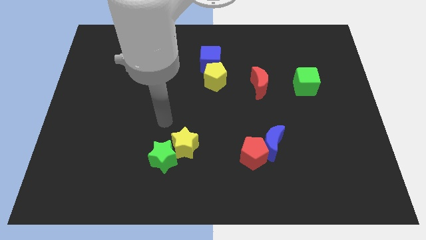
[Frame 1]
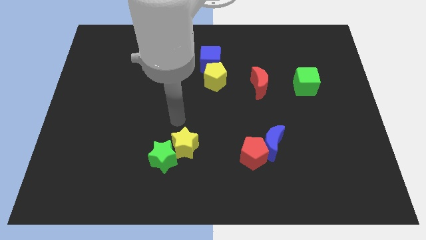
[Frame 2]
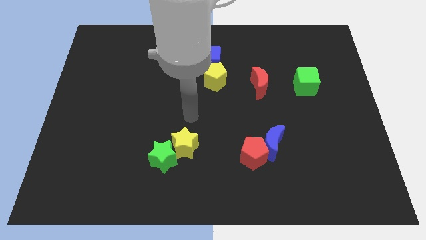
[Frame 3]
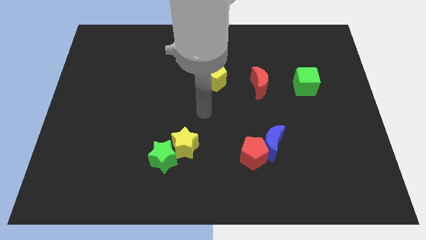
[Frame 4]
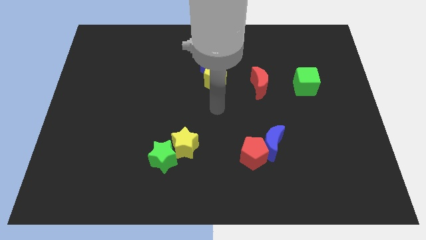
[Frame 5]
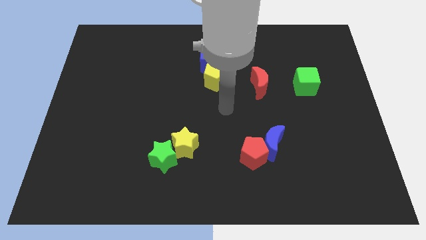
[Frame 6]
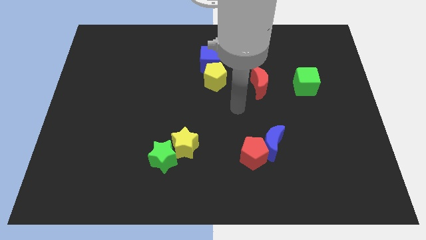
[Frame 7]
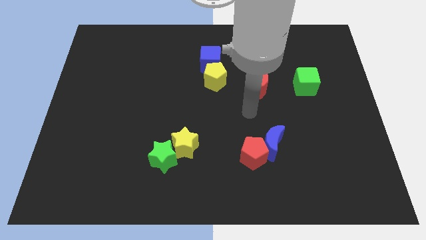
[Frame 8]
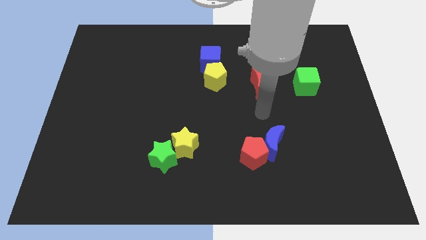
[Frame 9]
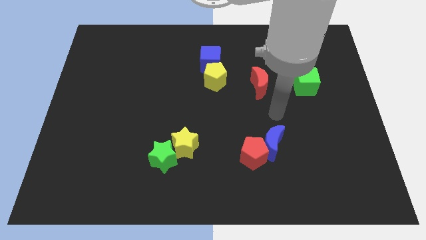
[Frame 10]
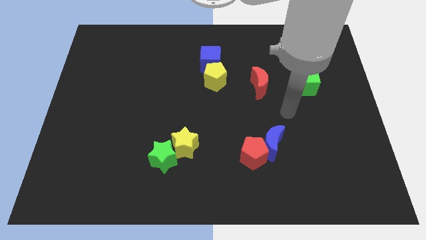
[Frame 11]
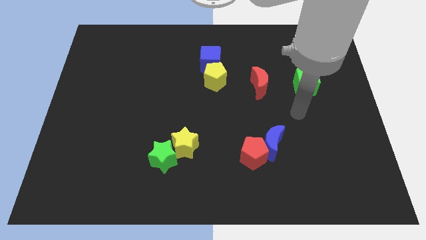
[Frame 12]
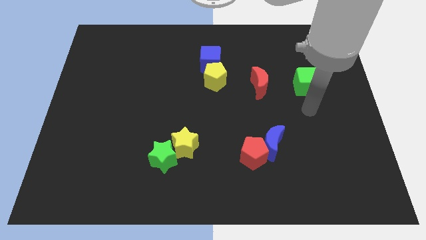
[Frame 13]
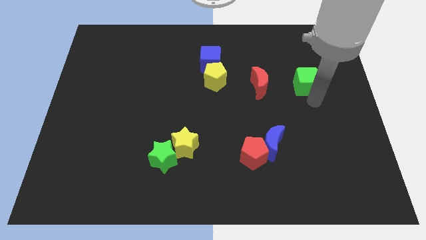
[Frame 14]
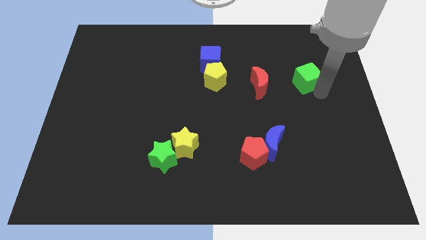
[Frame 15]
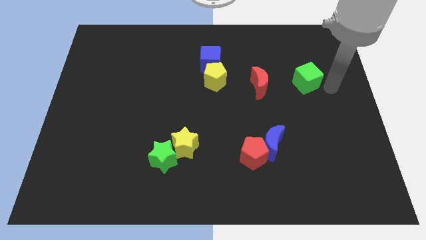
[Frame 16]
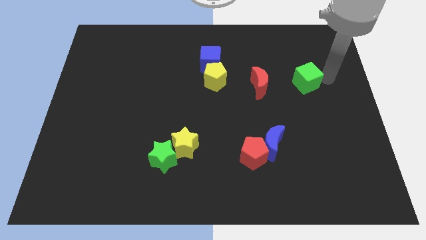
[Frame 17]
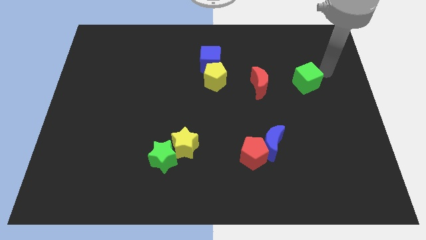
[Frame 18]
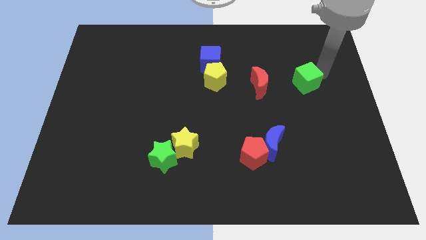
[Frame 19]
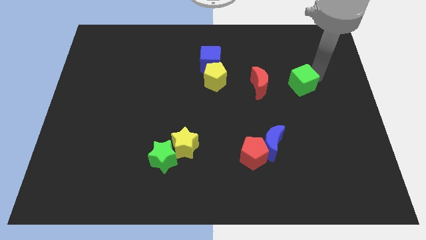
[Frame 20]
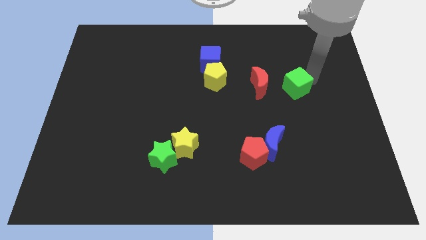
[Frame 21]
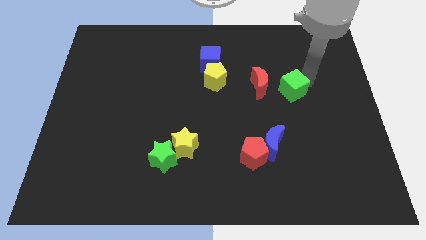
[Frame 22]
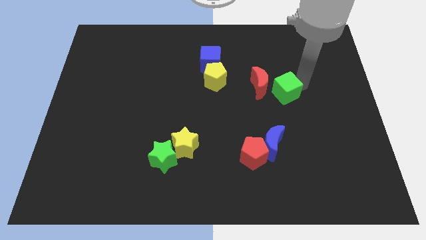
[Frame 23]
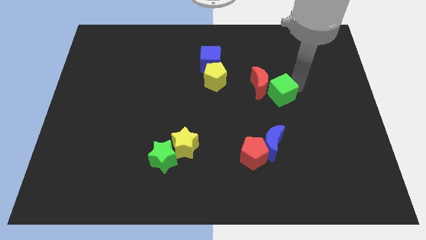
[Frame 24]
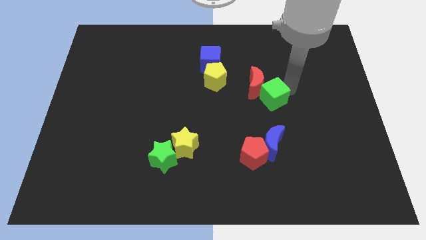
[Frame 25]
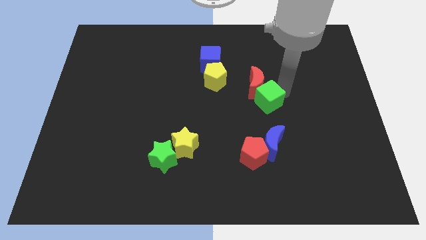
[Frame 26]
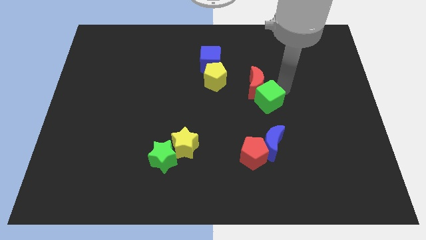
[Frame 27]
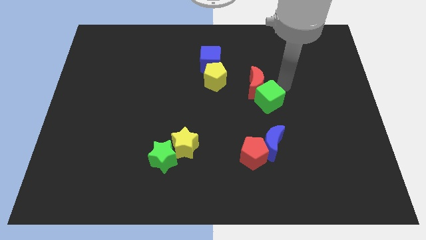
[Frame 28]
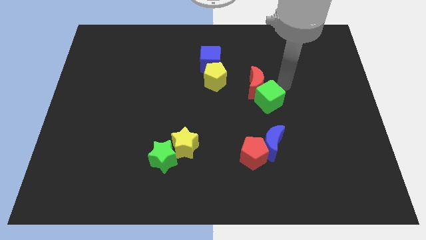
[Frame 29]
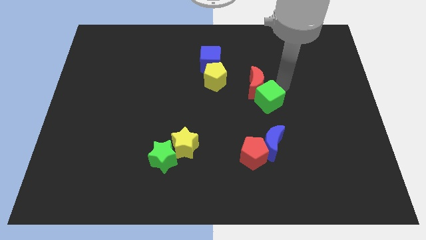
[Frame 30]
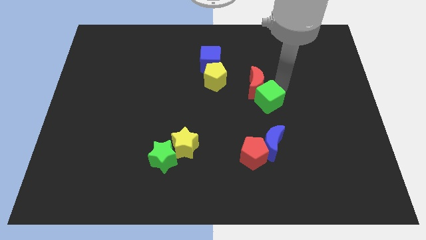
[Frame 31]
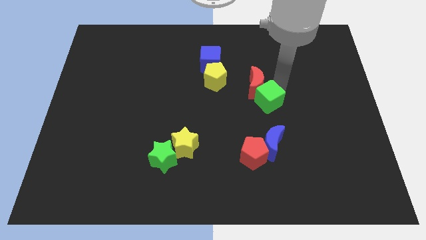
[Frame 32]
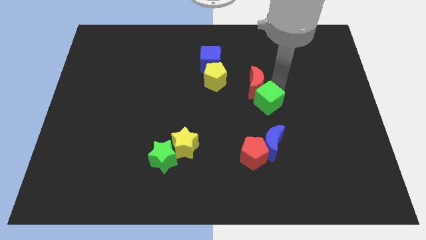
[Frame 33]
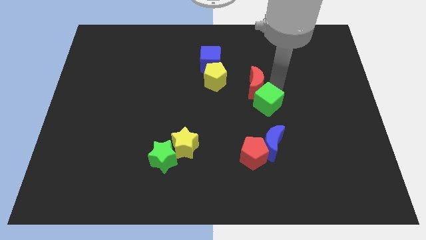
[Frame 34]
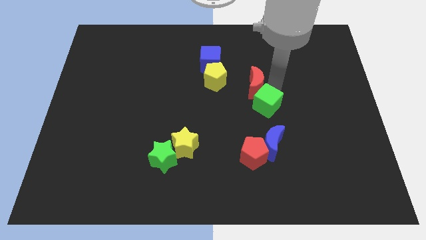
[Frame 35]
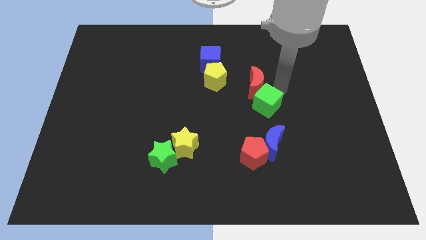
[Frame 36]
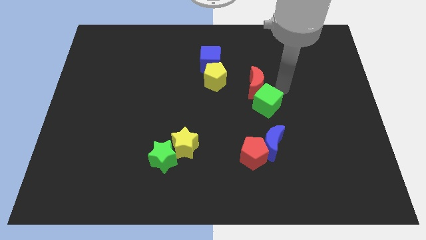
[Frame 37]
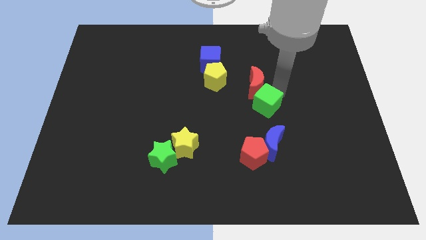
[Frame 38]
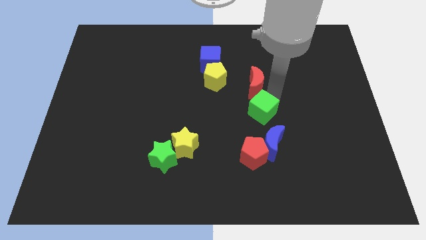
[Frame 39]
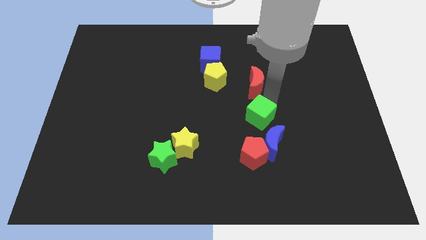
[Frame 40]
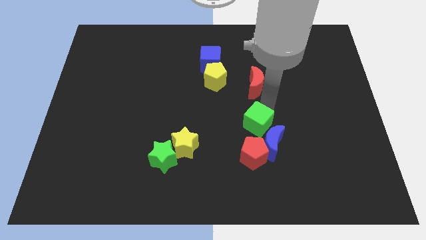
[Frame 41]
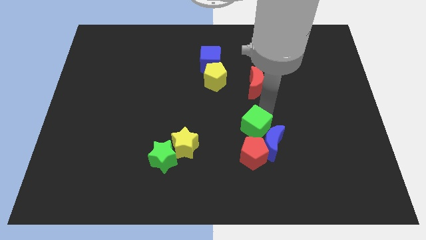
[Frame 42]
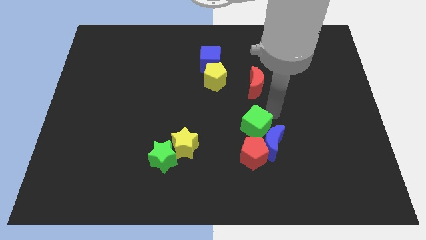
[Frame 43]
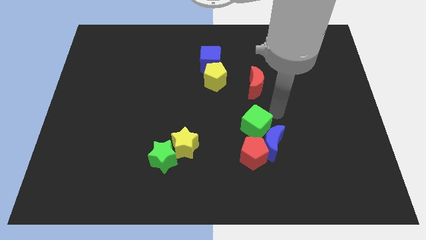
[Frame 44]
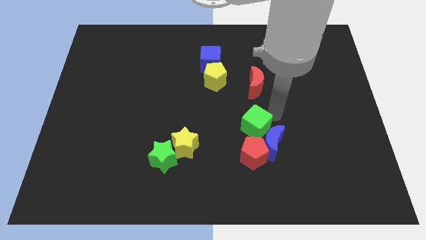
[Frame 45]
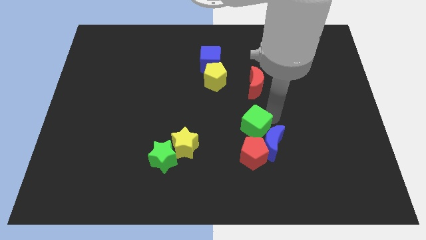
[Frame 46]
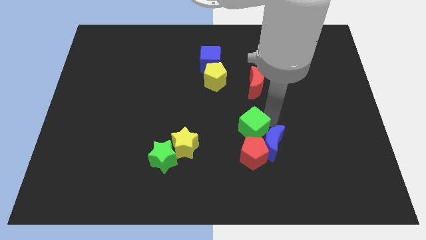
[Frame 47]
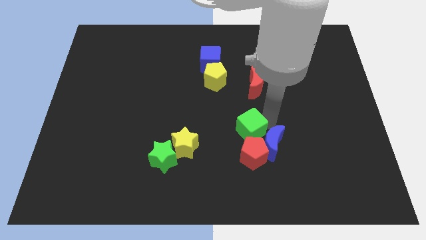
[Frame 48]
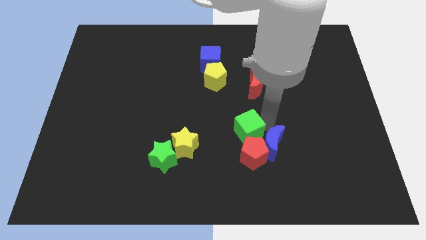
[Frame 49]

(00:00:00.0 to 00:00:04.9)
slide the green cube downwards and then left

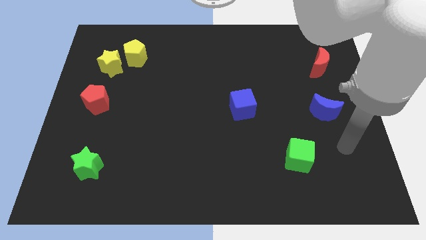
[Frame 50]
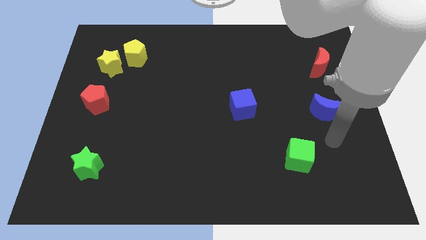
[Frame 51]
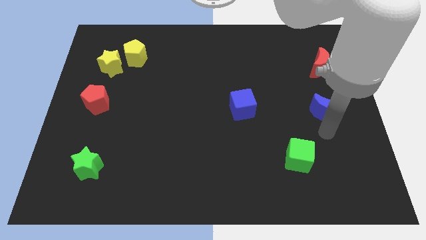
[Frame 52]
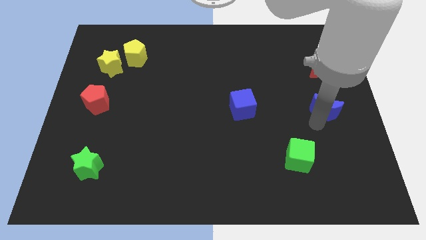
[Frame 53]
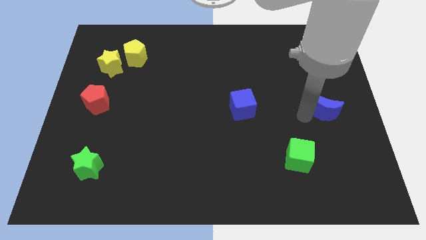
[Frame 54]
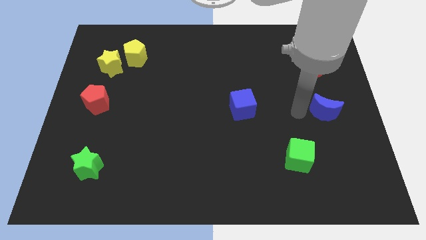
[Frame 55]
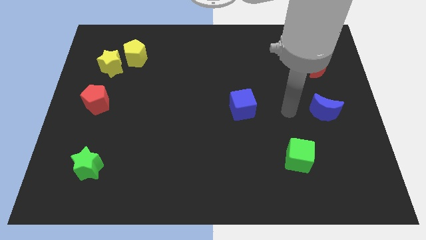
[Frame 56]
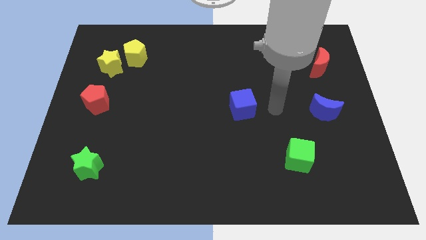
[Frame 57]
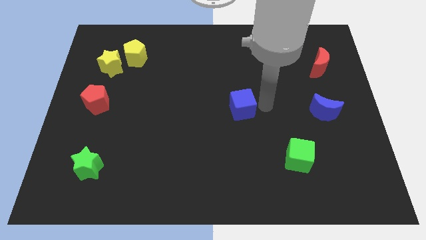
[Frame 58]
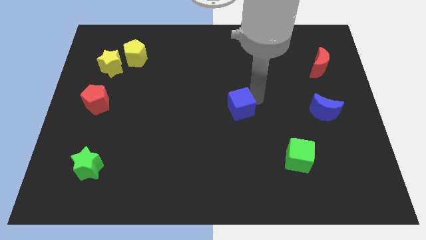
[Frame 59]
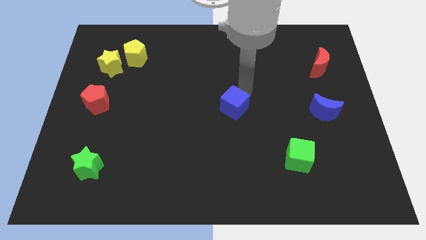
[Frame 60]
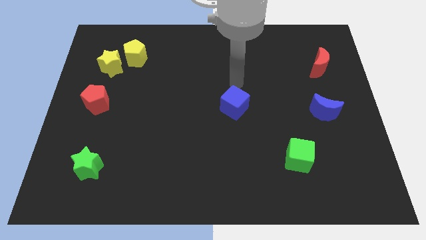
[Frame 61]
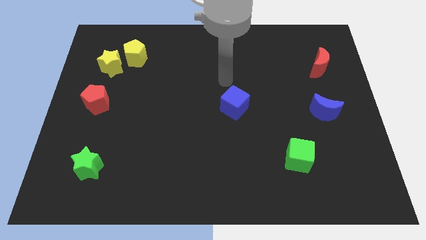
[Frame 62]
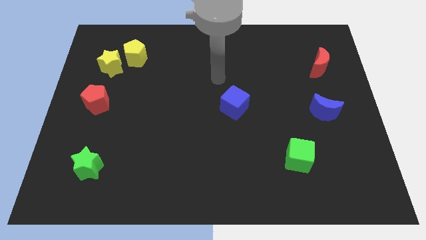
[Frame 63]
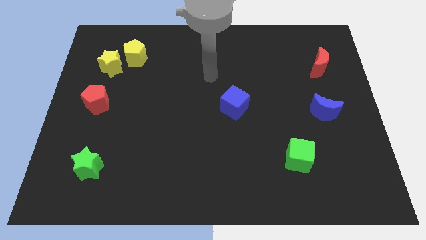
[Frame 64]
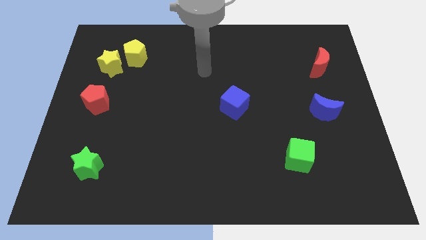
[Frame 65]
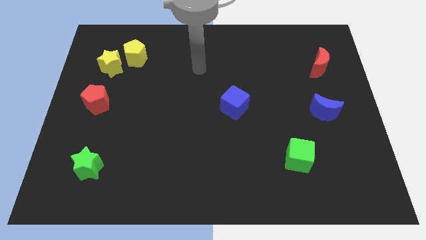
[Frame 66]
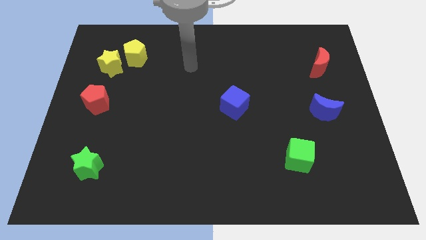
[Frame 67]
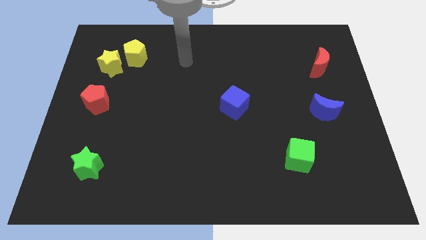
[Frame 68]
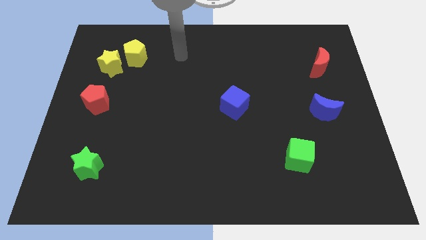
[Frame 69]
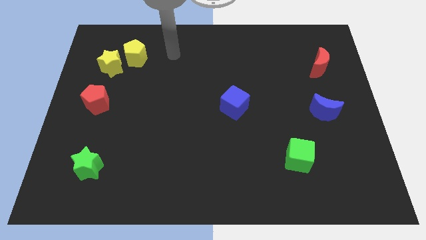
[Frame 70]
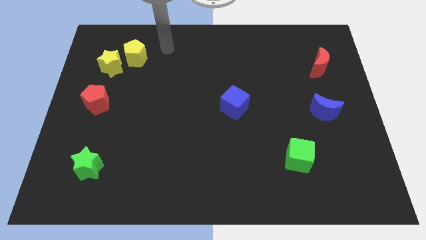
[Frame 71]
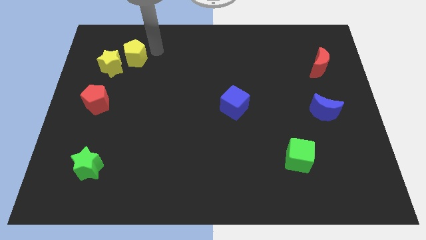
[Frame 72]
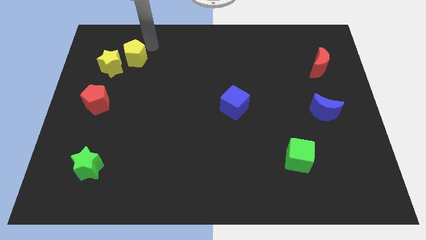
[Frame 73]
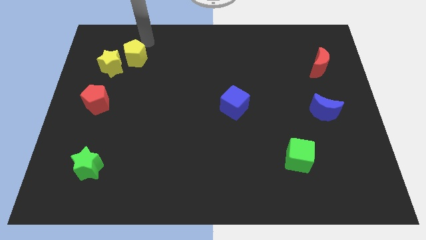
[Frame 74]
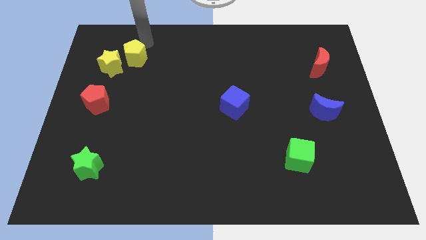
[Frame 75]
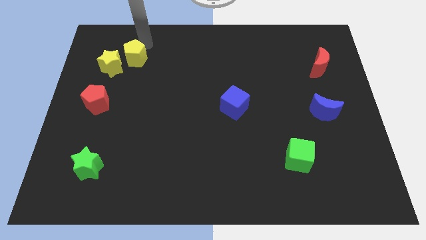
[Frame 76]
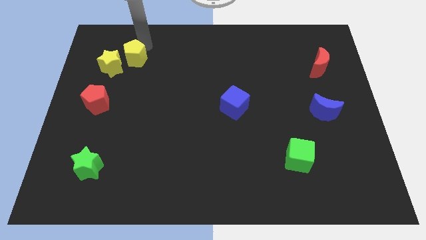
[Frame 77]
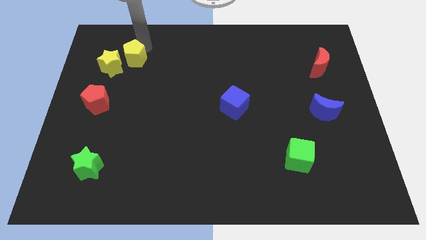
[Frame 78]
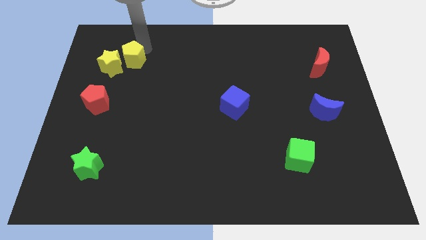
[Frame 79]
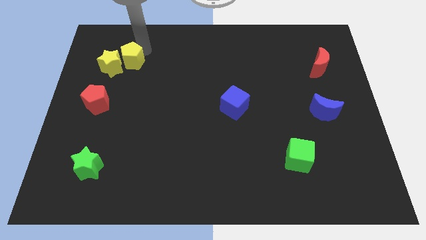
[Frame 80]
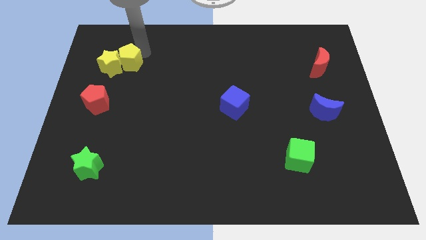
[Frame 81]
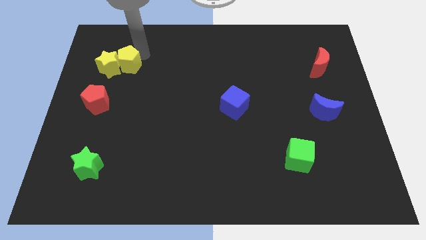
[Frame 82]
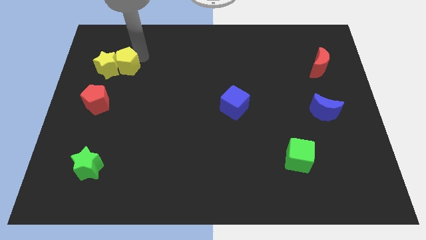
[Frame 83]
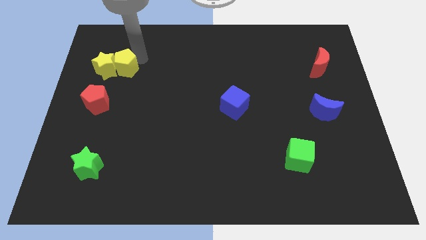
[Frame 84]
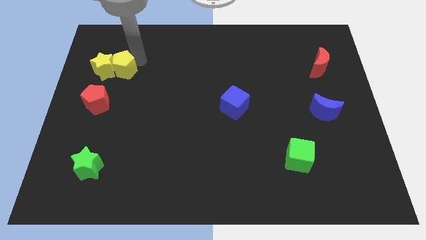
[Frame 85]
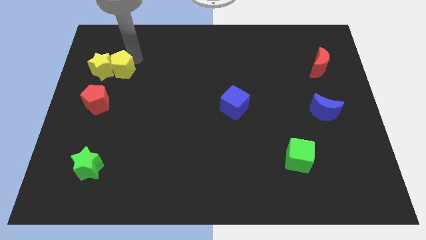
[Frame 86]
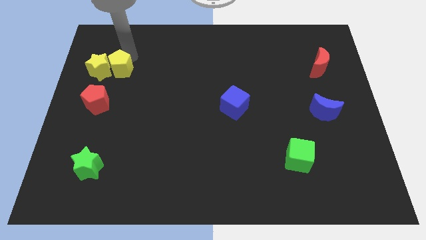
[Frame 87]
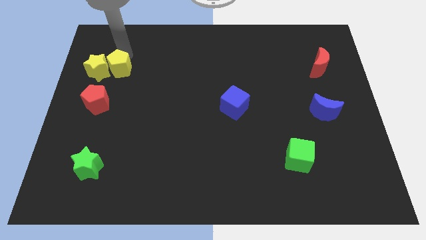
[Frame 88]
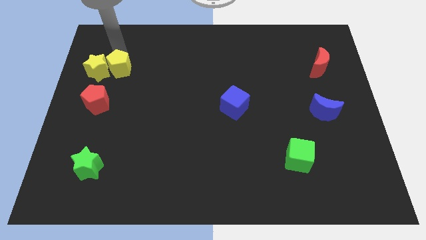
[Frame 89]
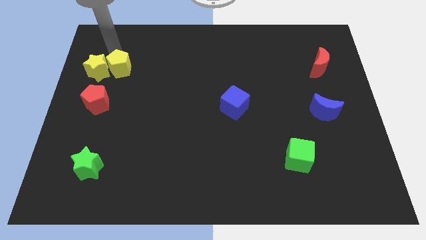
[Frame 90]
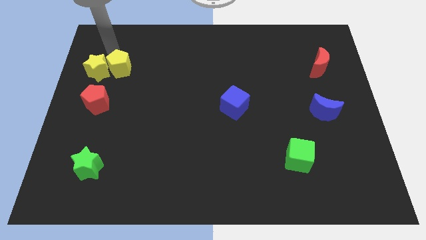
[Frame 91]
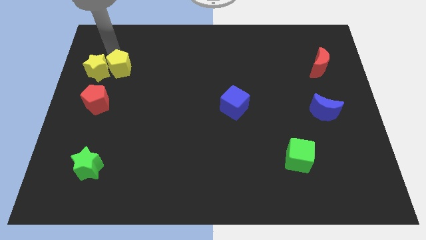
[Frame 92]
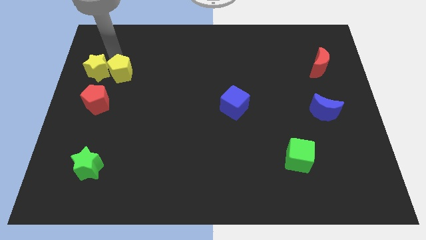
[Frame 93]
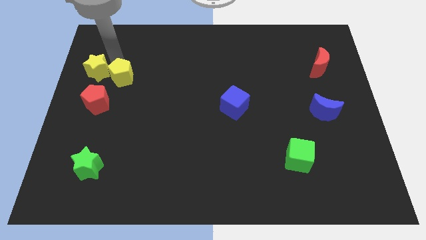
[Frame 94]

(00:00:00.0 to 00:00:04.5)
push the yellow pentagon a little bit downwards
